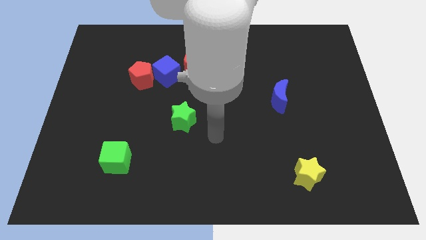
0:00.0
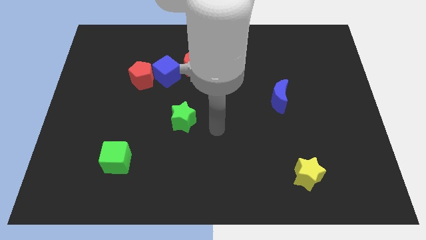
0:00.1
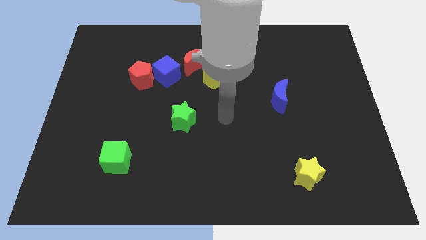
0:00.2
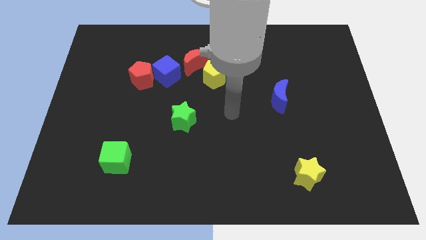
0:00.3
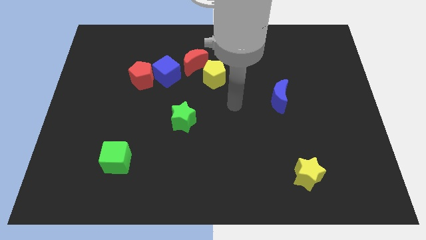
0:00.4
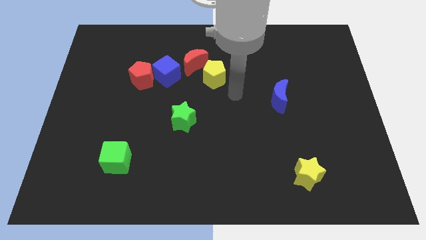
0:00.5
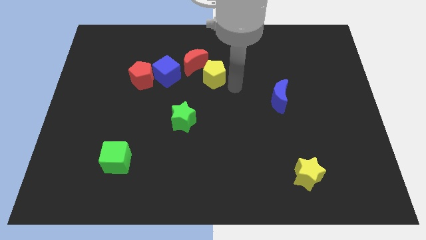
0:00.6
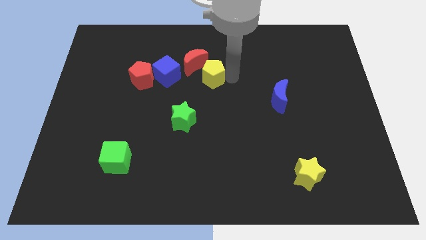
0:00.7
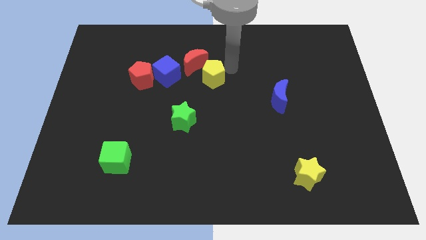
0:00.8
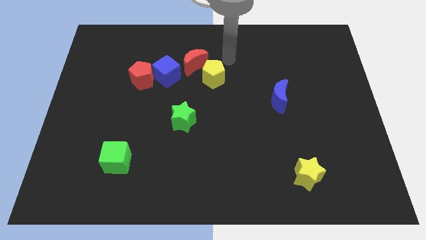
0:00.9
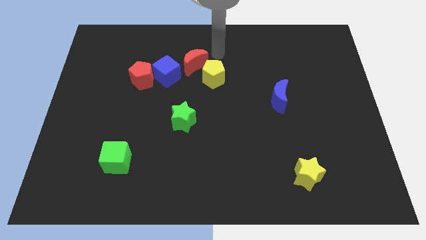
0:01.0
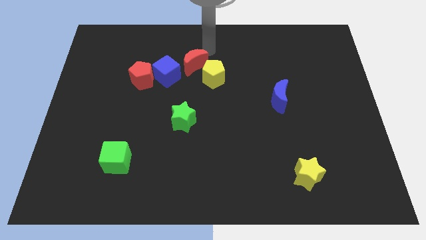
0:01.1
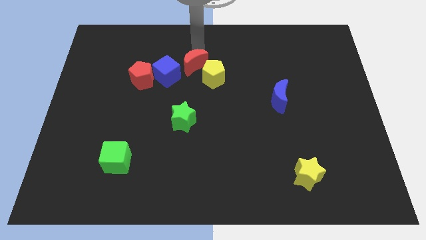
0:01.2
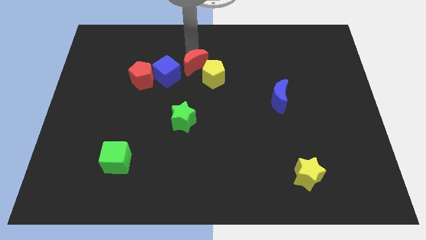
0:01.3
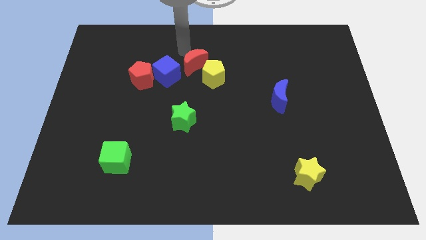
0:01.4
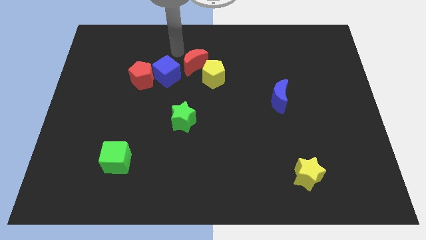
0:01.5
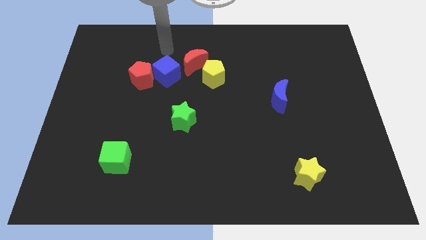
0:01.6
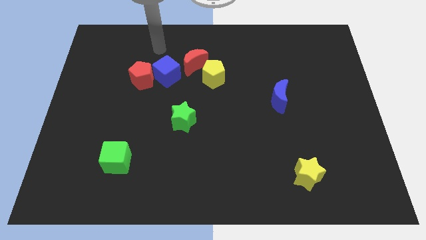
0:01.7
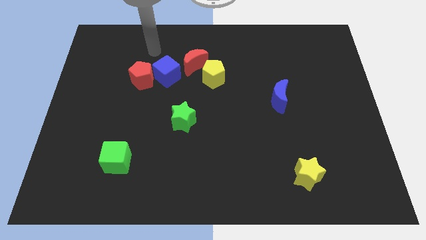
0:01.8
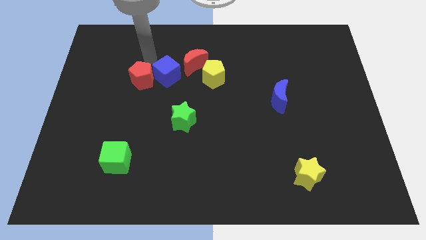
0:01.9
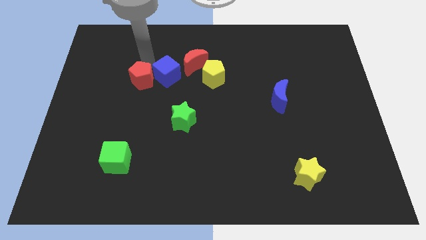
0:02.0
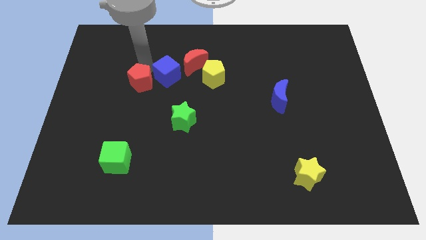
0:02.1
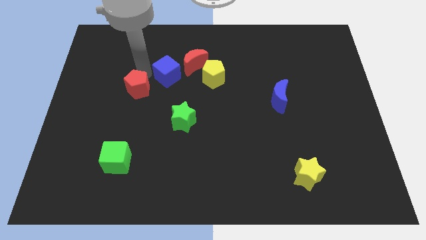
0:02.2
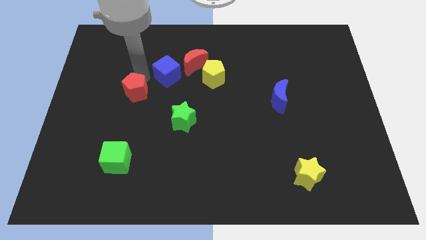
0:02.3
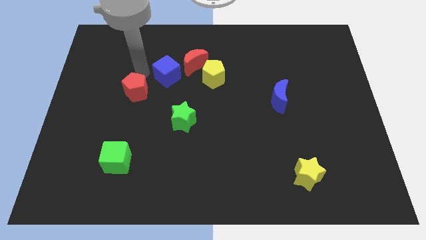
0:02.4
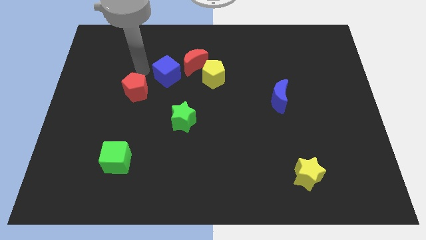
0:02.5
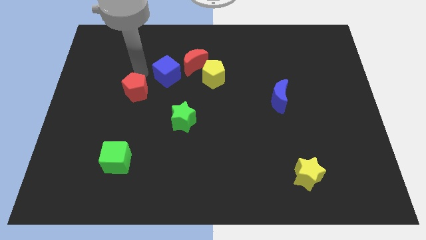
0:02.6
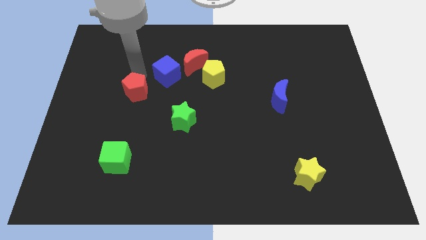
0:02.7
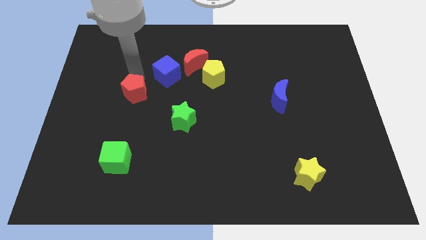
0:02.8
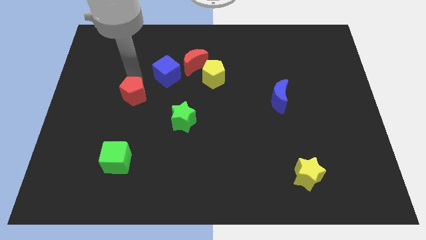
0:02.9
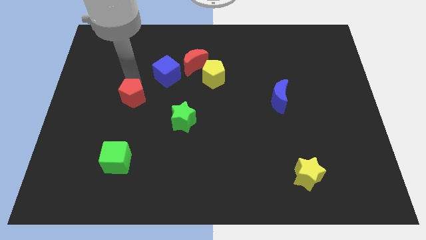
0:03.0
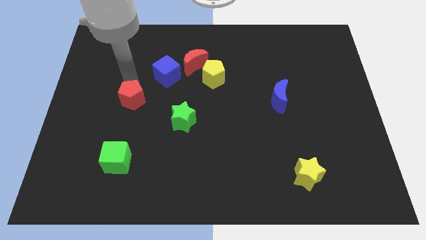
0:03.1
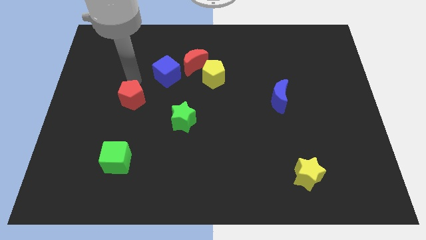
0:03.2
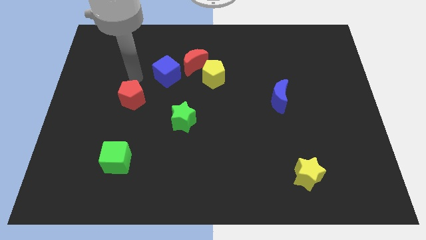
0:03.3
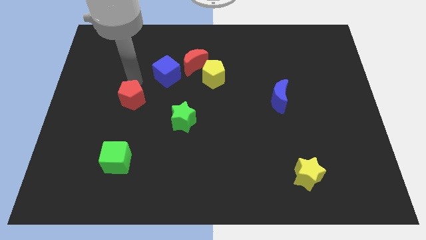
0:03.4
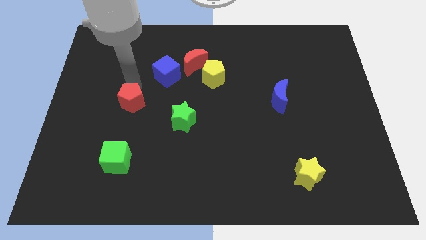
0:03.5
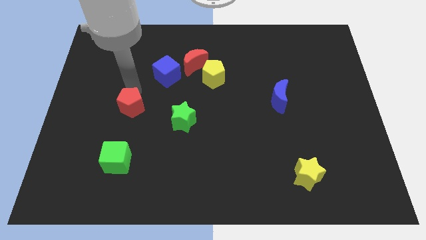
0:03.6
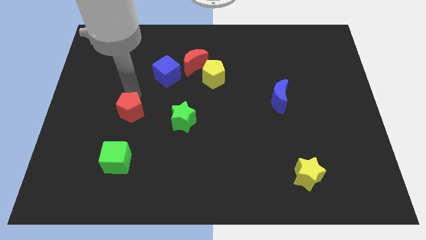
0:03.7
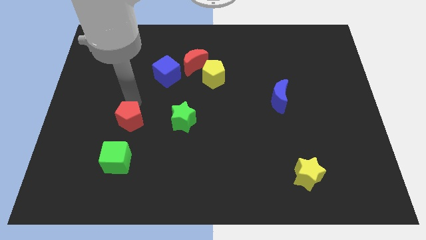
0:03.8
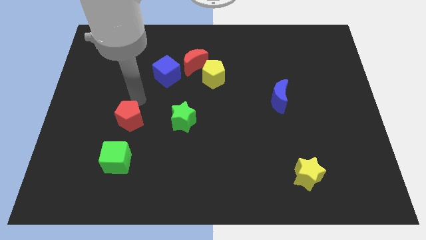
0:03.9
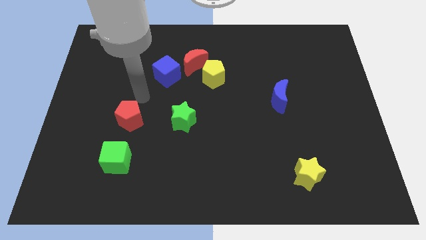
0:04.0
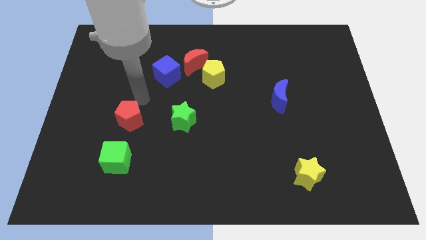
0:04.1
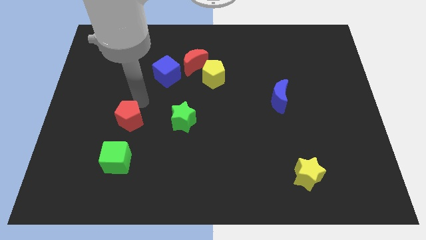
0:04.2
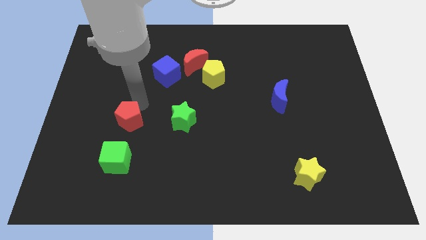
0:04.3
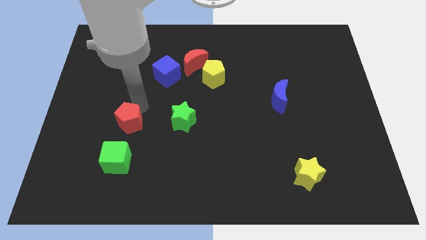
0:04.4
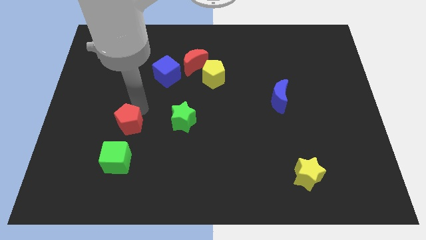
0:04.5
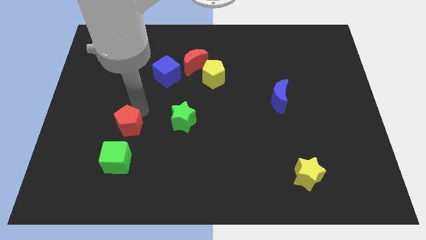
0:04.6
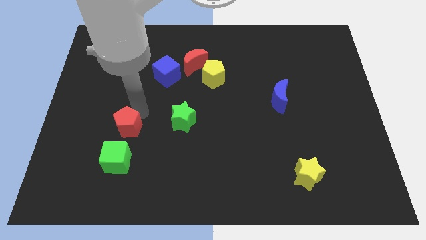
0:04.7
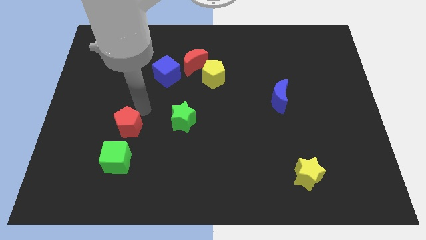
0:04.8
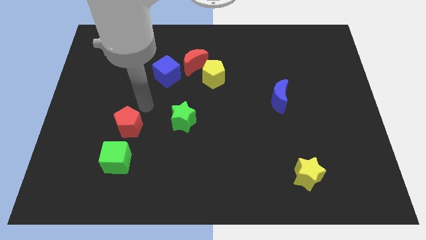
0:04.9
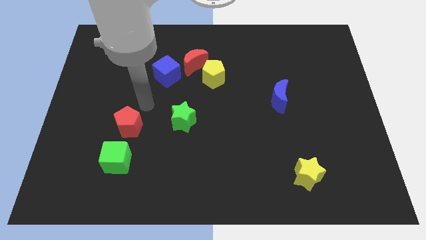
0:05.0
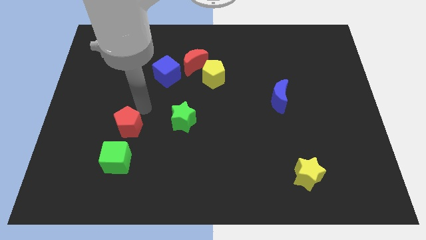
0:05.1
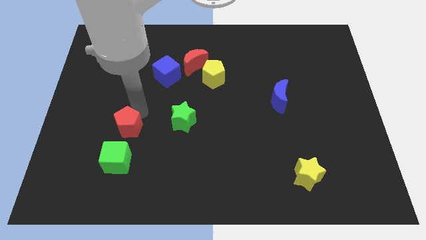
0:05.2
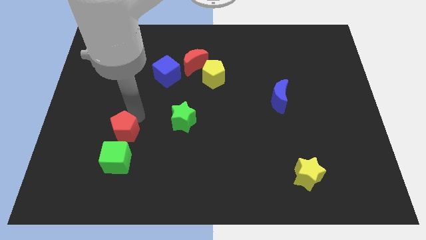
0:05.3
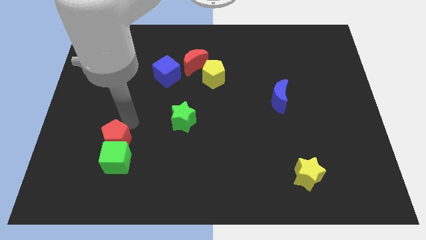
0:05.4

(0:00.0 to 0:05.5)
push the red pentagon towards the green cube

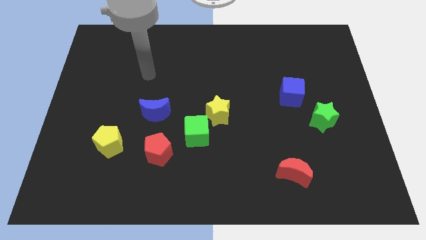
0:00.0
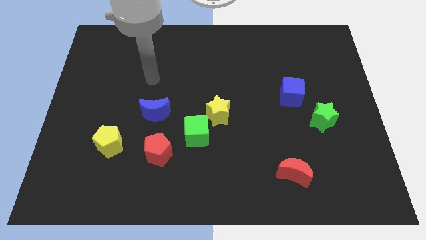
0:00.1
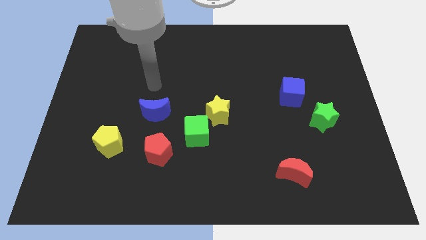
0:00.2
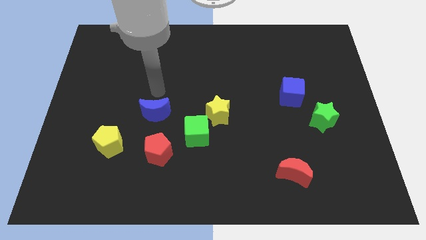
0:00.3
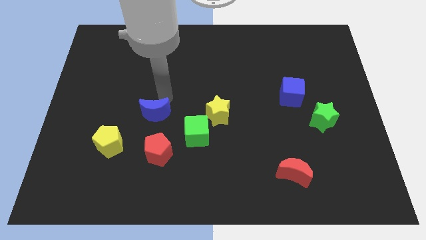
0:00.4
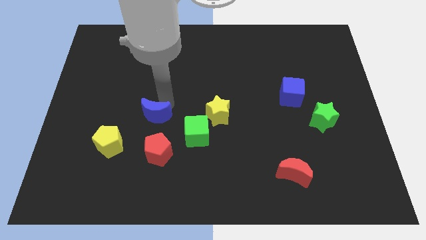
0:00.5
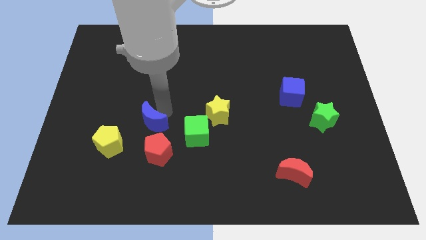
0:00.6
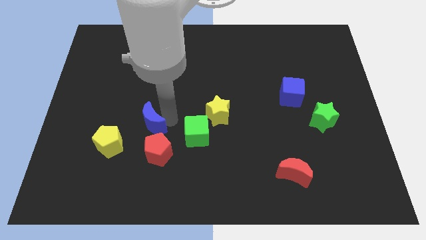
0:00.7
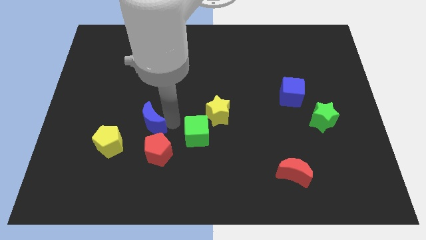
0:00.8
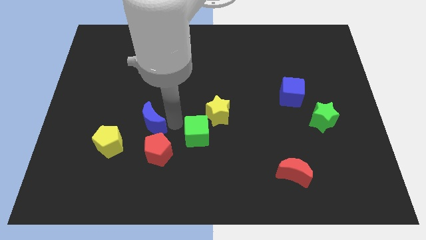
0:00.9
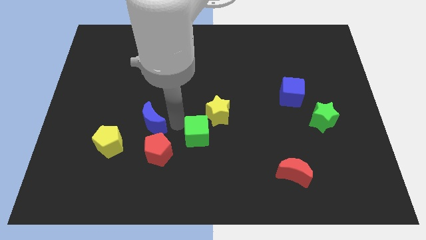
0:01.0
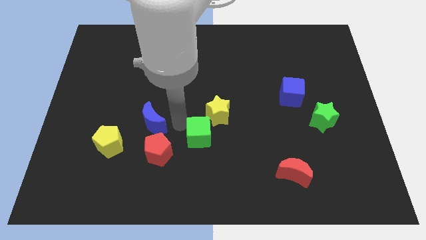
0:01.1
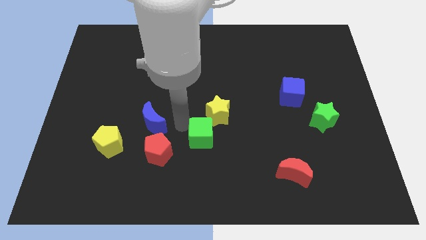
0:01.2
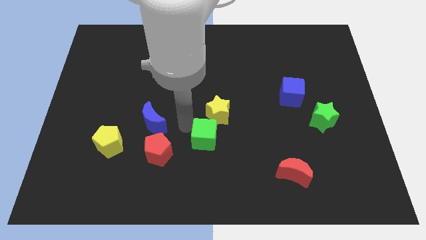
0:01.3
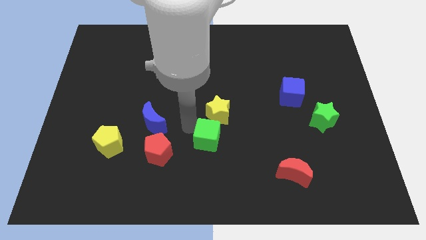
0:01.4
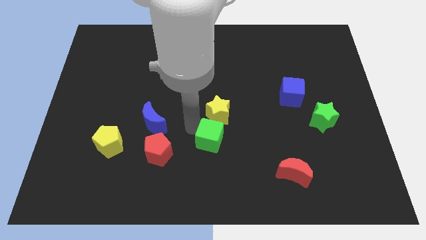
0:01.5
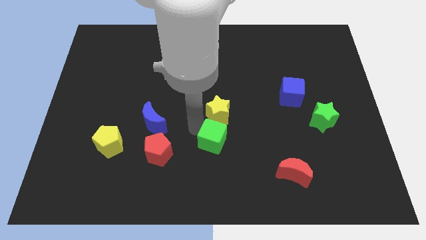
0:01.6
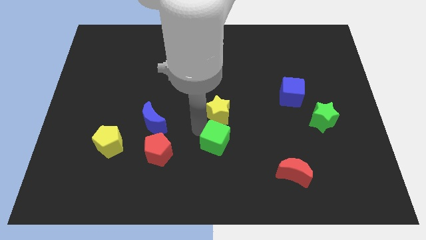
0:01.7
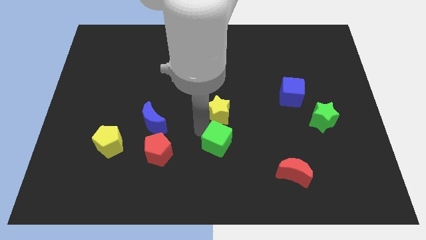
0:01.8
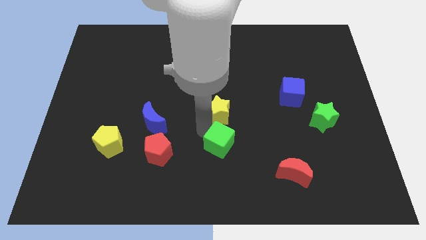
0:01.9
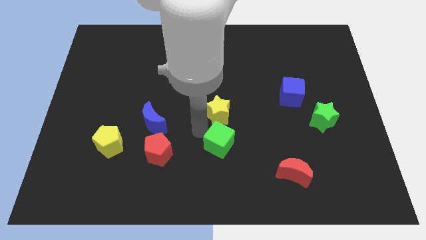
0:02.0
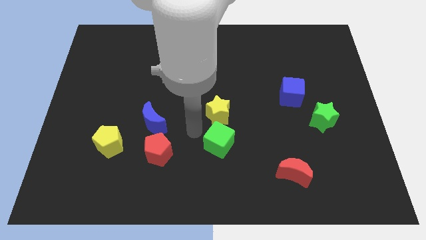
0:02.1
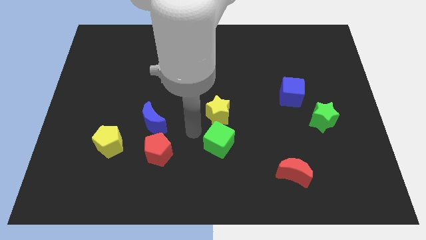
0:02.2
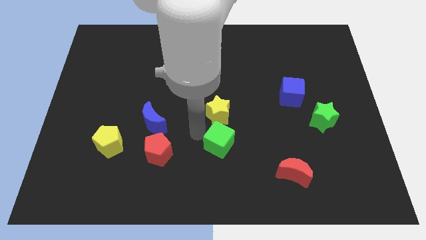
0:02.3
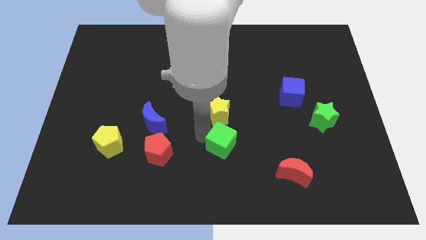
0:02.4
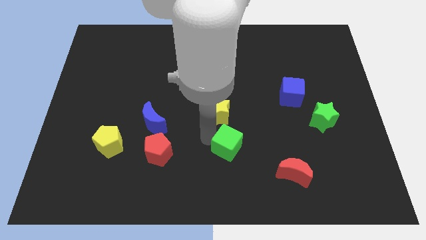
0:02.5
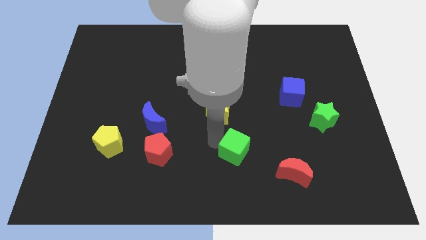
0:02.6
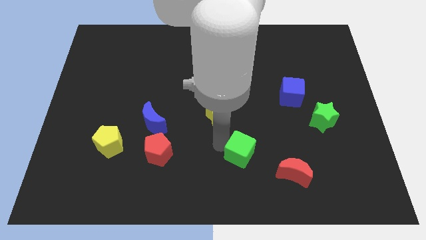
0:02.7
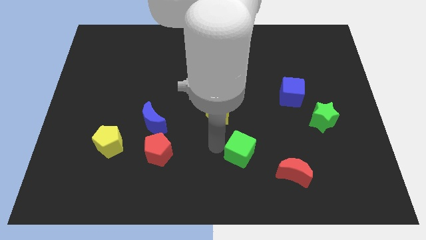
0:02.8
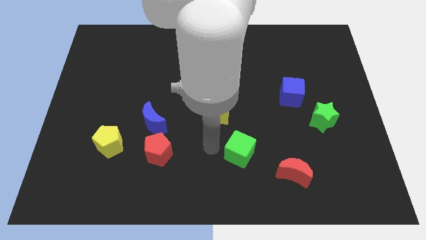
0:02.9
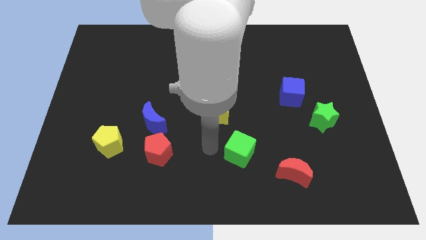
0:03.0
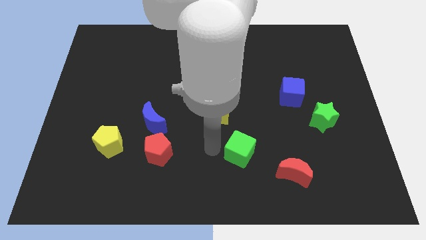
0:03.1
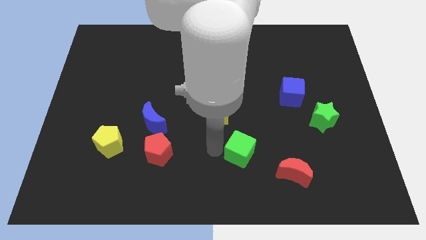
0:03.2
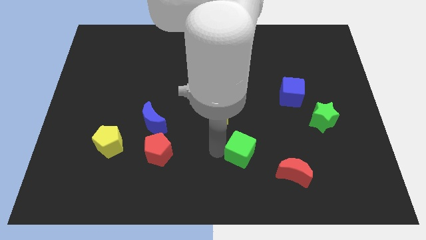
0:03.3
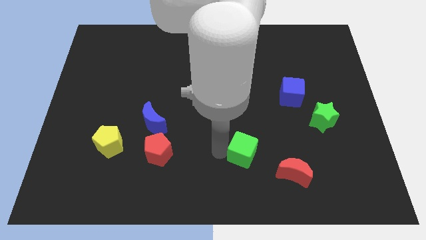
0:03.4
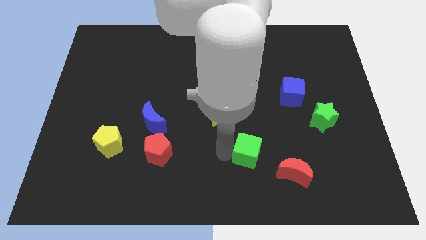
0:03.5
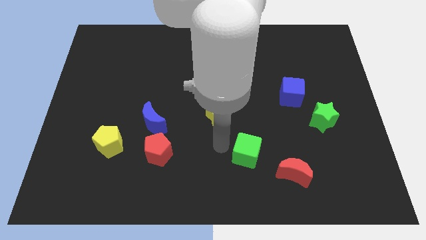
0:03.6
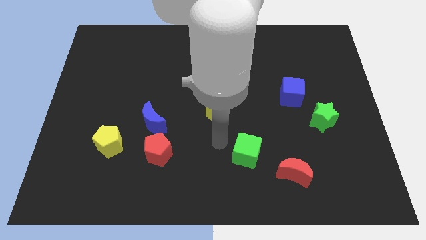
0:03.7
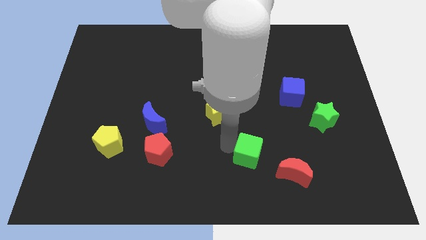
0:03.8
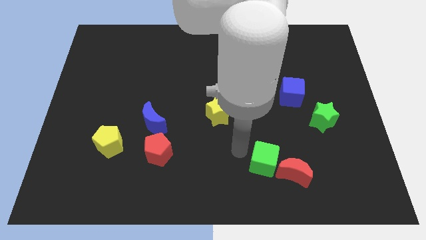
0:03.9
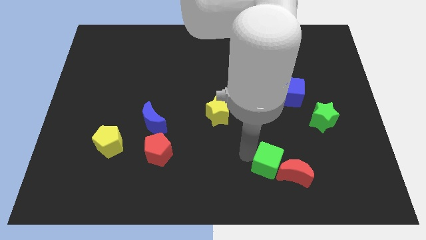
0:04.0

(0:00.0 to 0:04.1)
move the green cube next to the red moon
